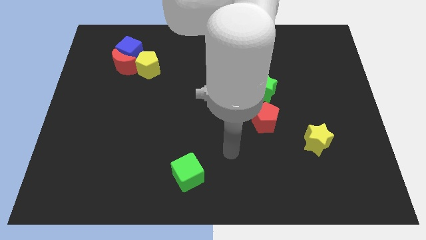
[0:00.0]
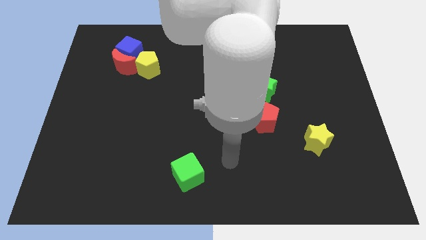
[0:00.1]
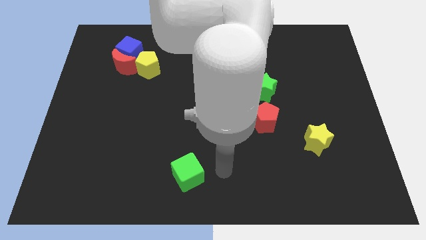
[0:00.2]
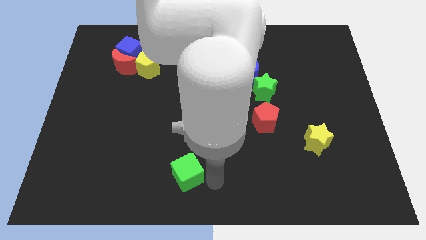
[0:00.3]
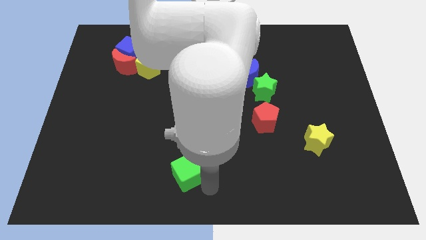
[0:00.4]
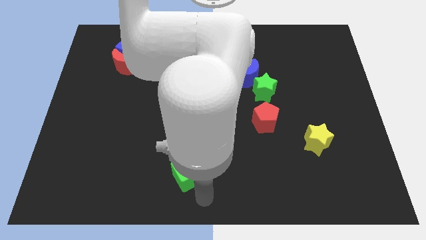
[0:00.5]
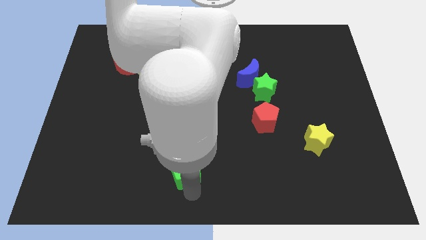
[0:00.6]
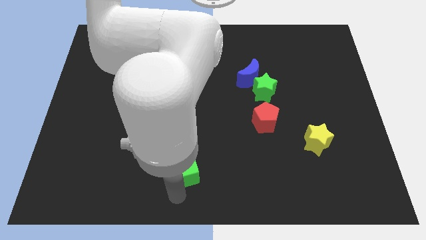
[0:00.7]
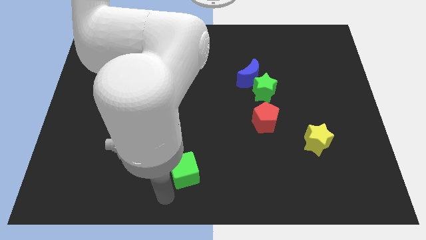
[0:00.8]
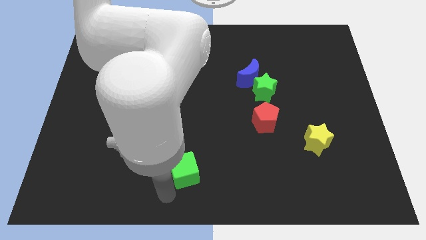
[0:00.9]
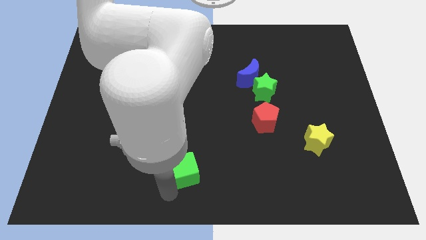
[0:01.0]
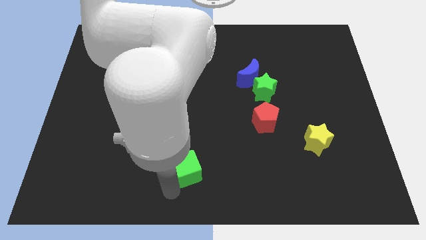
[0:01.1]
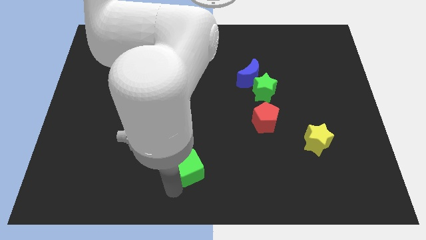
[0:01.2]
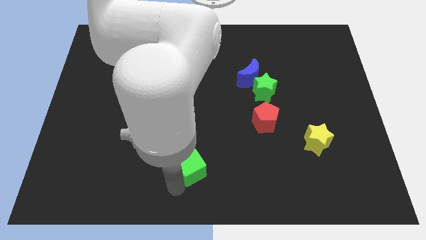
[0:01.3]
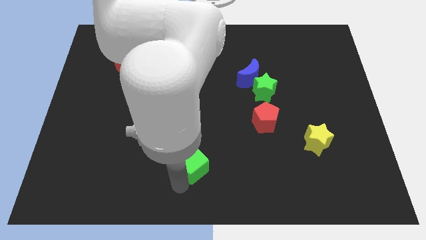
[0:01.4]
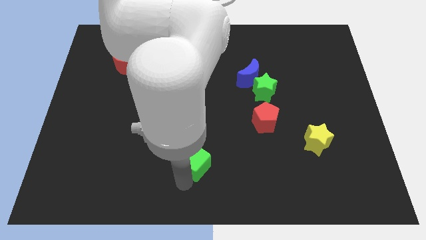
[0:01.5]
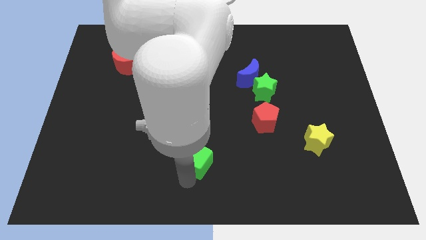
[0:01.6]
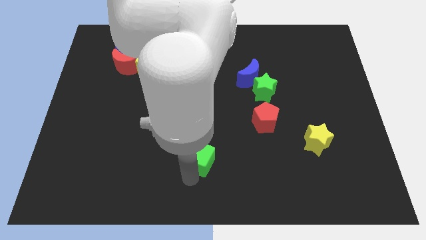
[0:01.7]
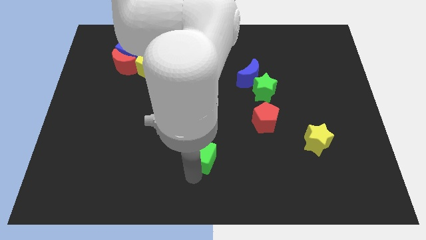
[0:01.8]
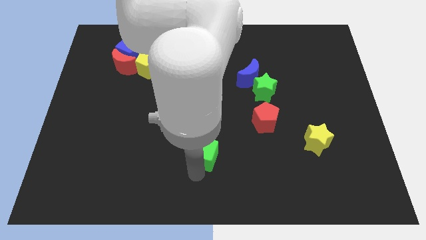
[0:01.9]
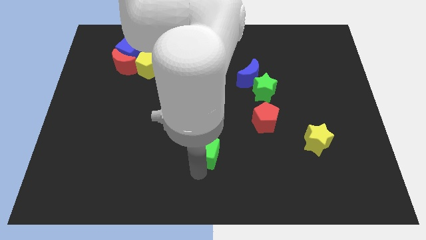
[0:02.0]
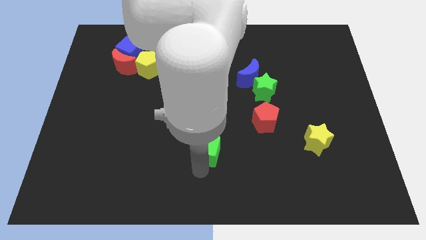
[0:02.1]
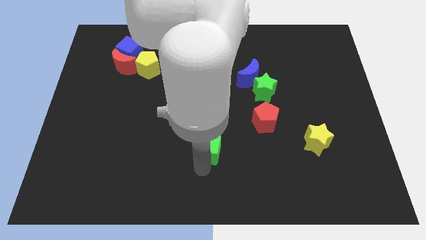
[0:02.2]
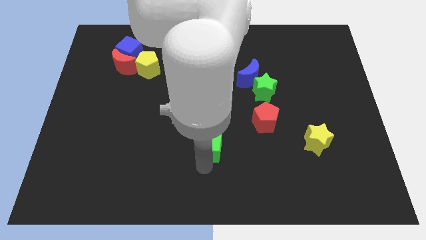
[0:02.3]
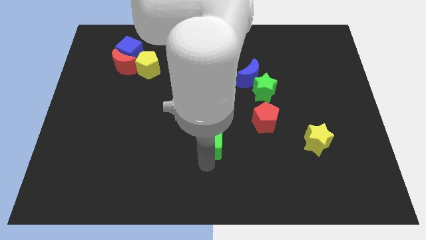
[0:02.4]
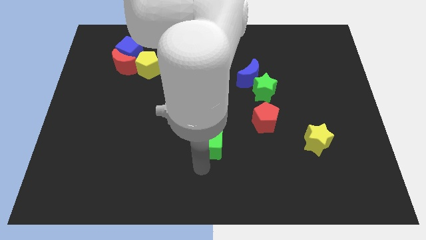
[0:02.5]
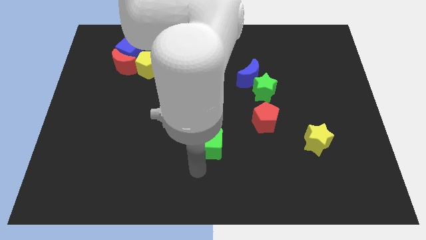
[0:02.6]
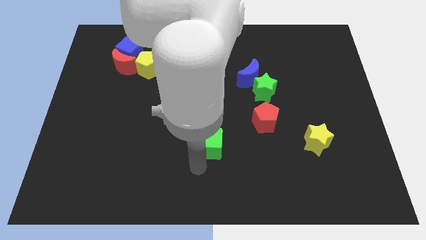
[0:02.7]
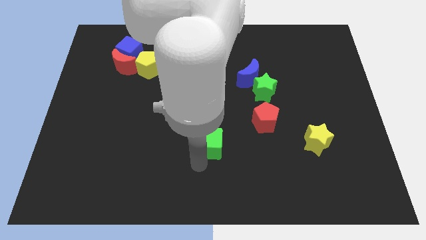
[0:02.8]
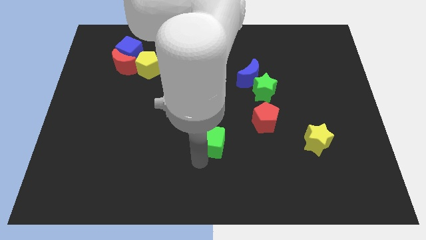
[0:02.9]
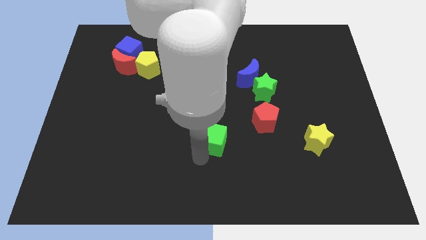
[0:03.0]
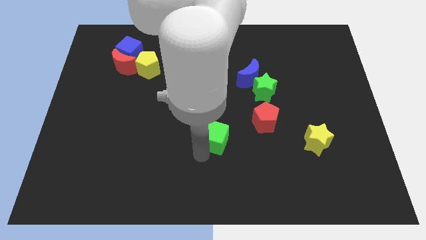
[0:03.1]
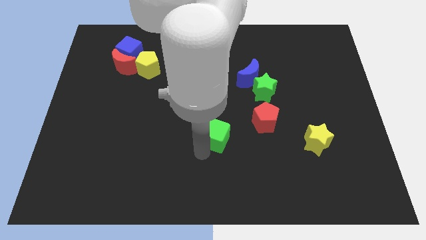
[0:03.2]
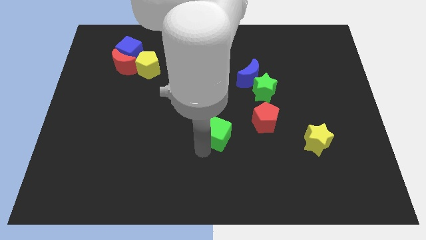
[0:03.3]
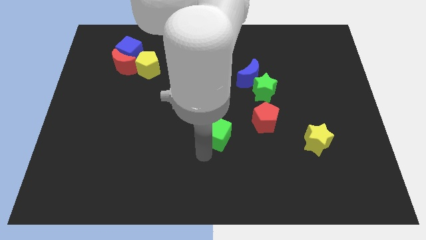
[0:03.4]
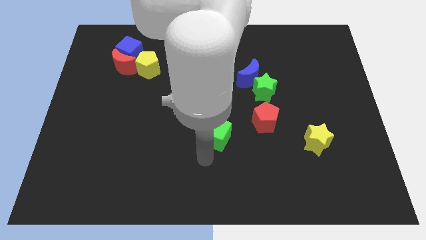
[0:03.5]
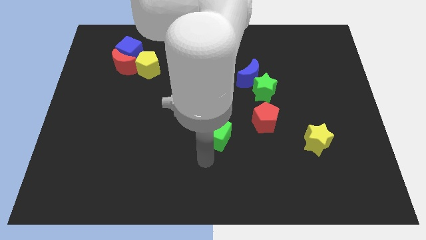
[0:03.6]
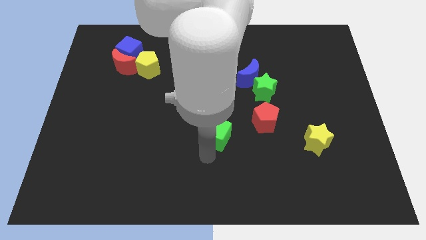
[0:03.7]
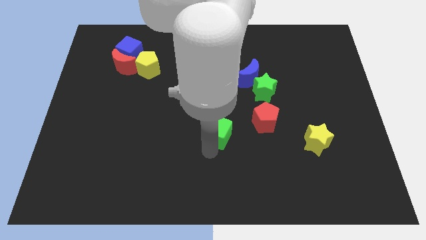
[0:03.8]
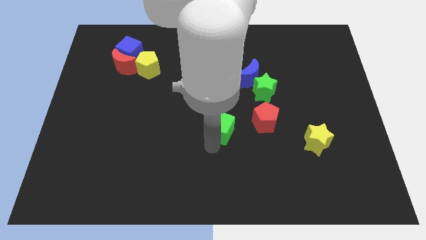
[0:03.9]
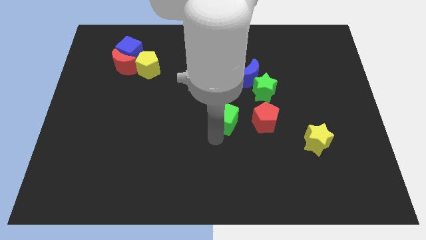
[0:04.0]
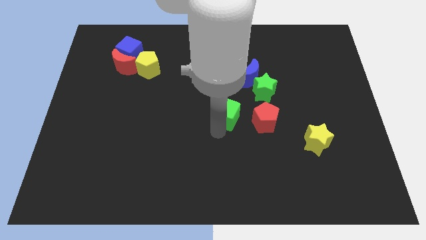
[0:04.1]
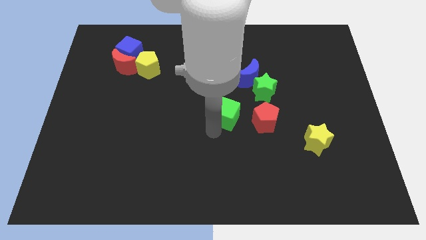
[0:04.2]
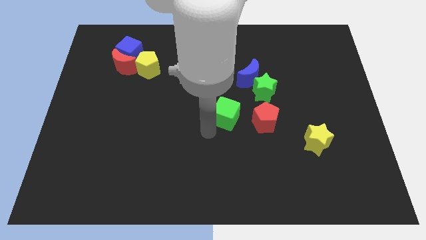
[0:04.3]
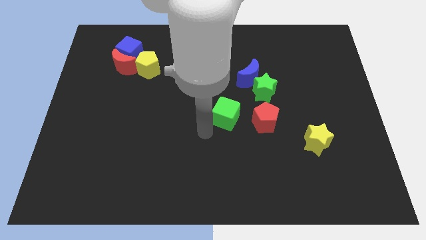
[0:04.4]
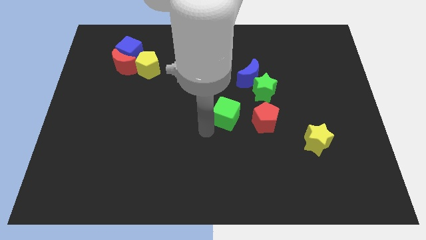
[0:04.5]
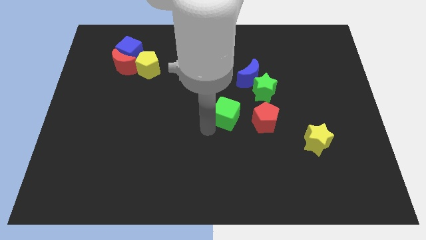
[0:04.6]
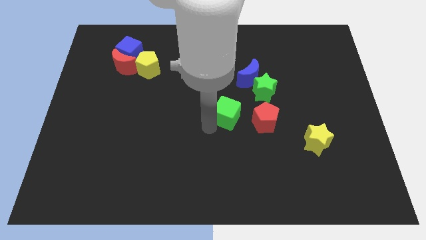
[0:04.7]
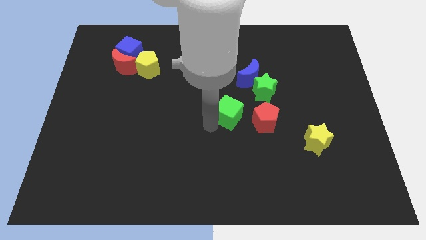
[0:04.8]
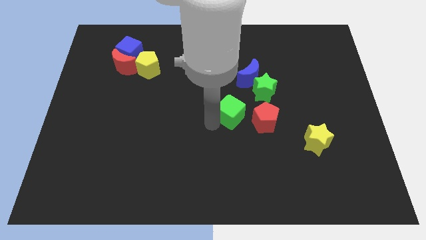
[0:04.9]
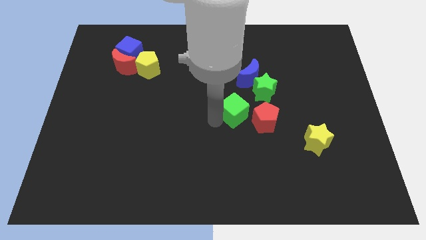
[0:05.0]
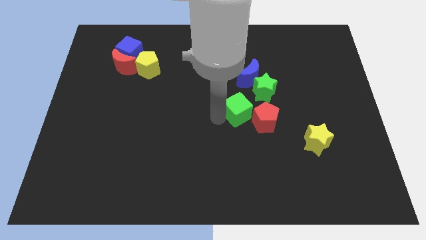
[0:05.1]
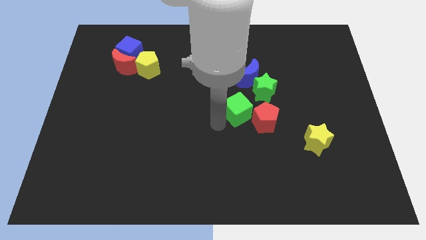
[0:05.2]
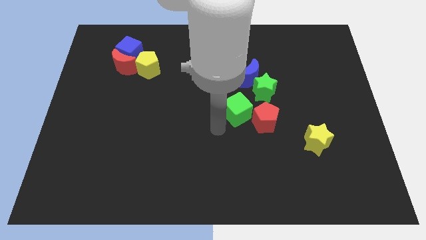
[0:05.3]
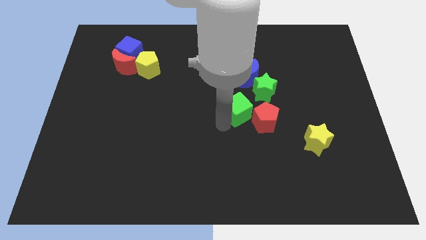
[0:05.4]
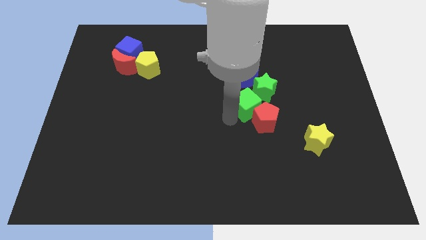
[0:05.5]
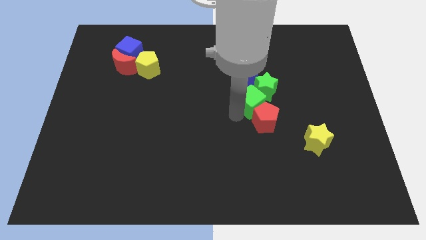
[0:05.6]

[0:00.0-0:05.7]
slide the green cube close to the green star

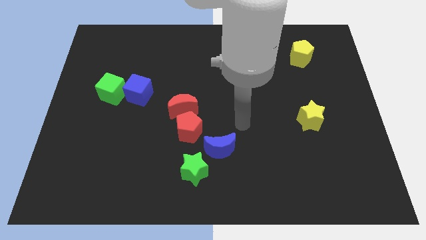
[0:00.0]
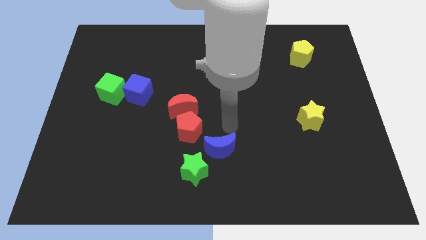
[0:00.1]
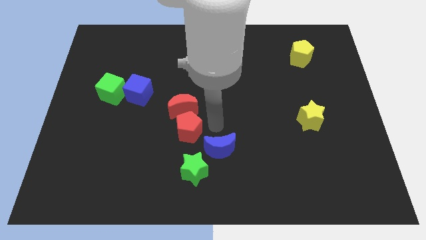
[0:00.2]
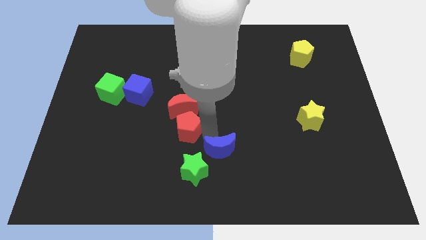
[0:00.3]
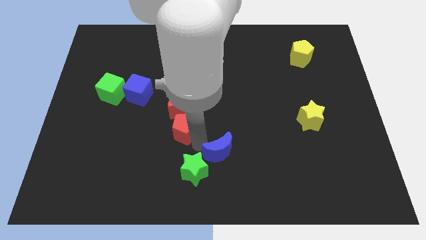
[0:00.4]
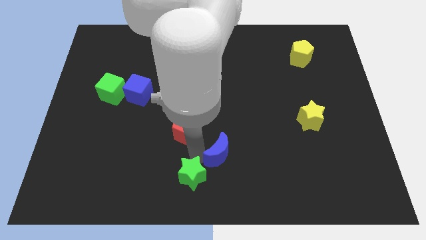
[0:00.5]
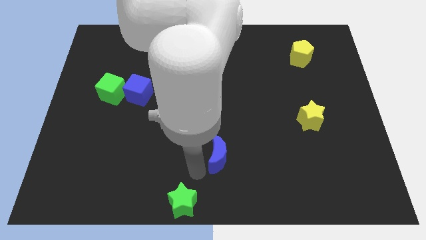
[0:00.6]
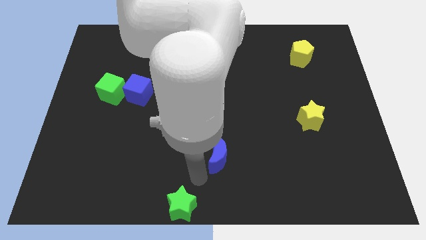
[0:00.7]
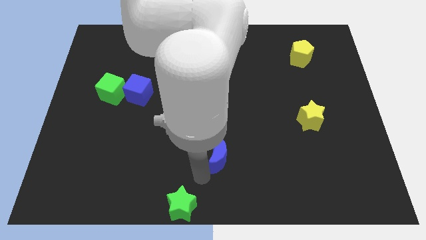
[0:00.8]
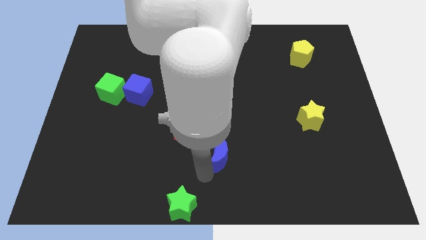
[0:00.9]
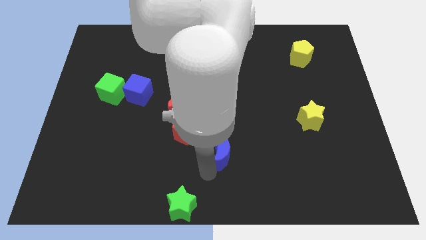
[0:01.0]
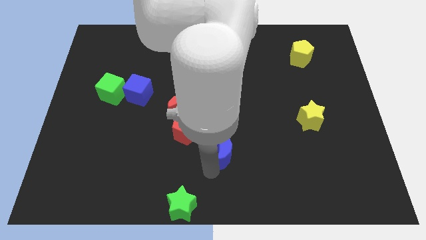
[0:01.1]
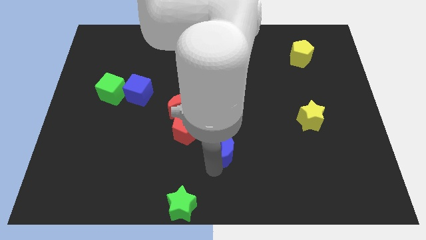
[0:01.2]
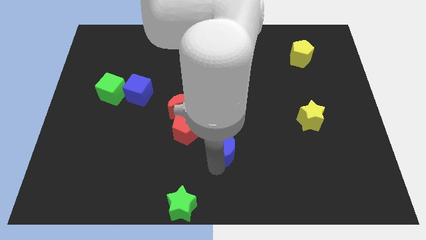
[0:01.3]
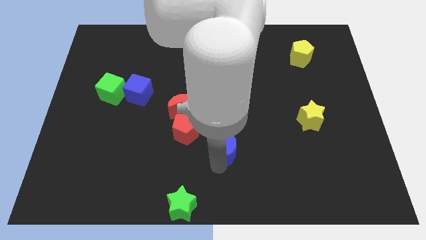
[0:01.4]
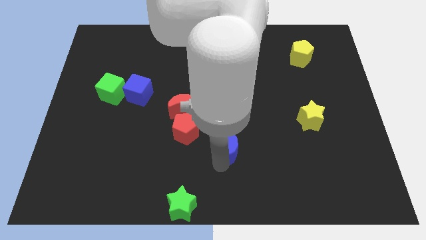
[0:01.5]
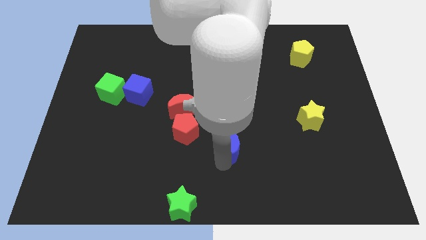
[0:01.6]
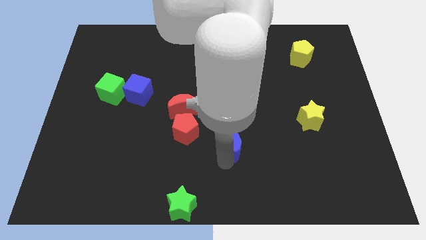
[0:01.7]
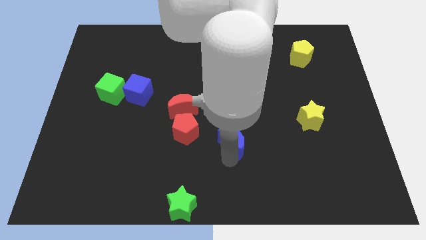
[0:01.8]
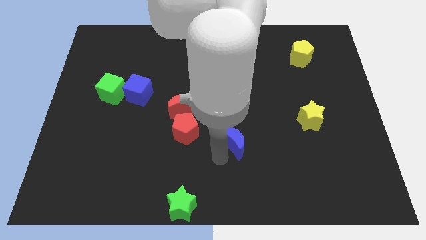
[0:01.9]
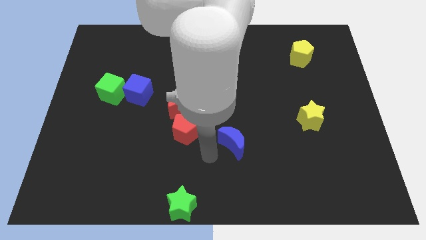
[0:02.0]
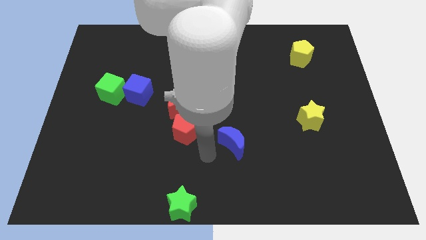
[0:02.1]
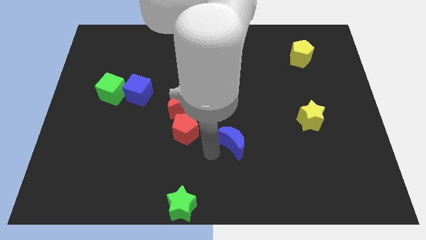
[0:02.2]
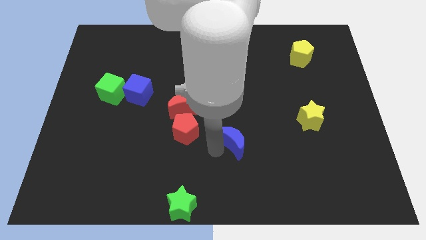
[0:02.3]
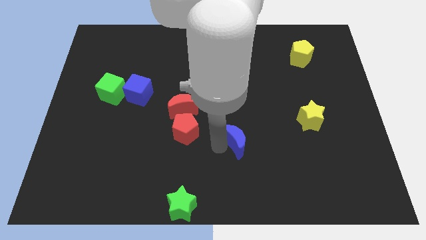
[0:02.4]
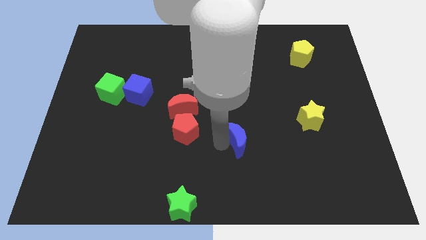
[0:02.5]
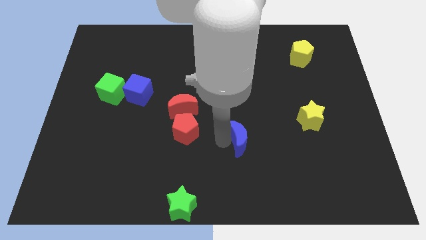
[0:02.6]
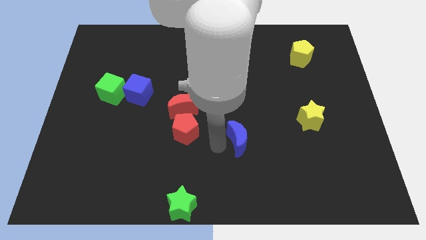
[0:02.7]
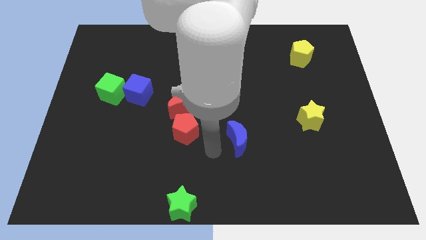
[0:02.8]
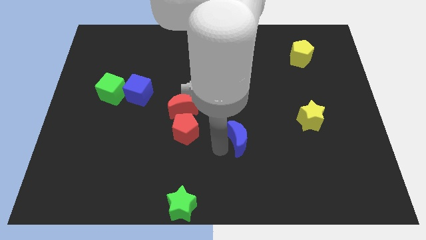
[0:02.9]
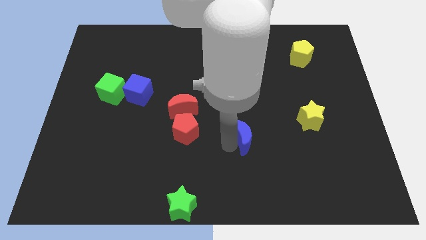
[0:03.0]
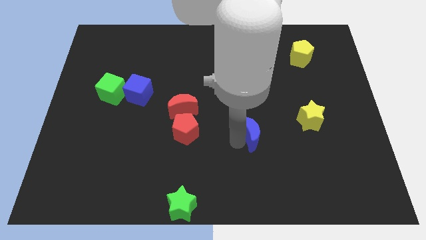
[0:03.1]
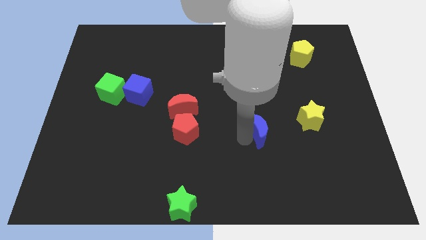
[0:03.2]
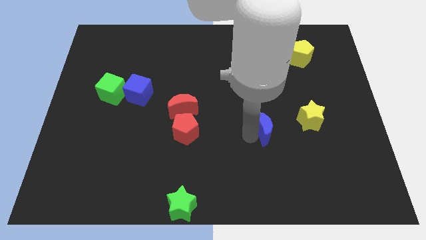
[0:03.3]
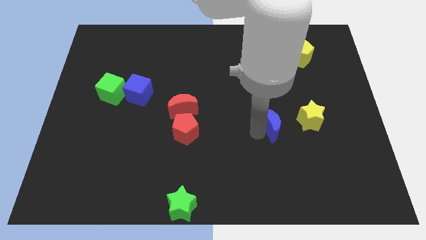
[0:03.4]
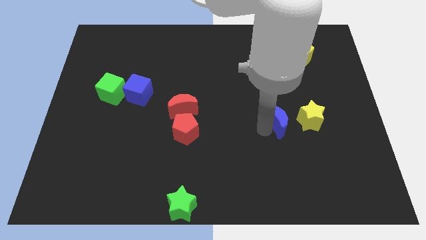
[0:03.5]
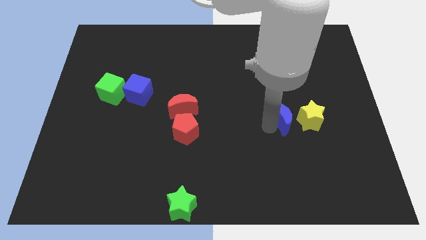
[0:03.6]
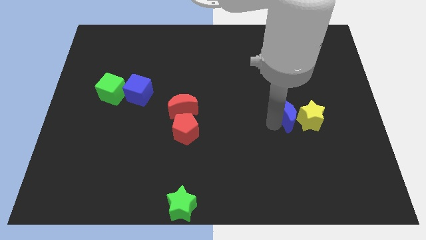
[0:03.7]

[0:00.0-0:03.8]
slide the blue moon to the yellow star
